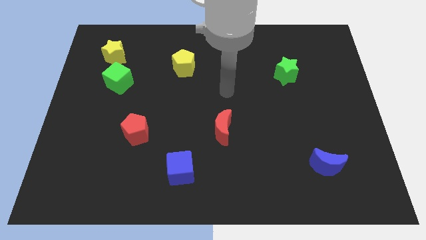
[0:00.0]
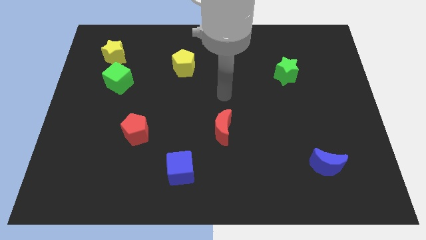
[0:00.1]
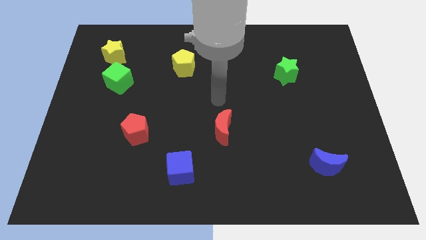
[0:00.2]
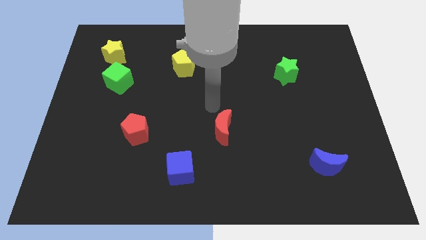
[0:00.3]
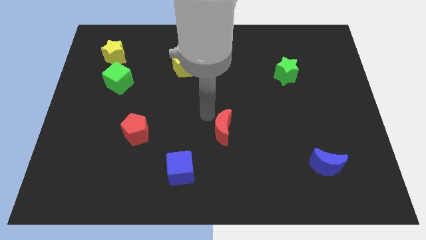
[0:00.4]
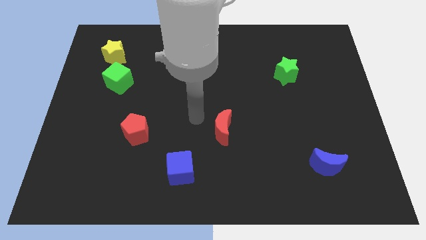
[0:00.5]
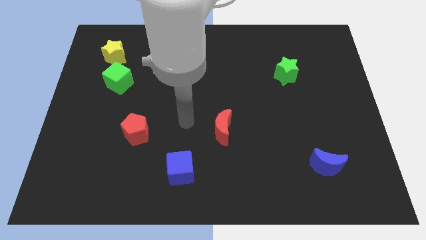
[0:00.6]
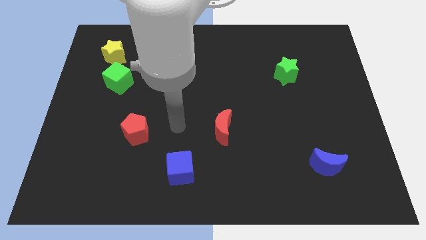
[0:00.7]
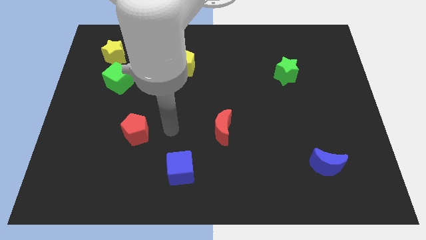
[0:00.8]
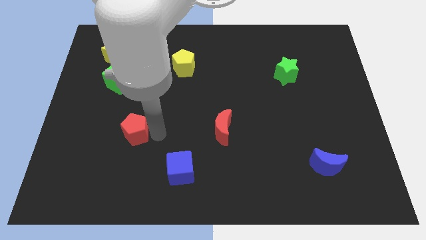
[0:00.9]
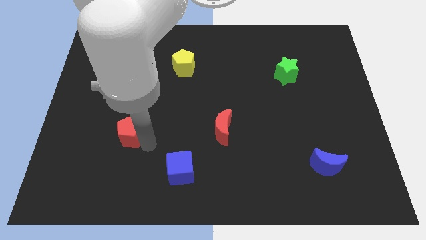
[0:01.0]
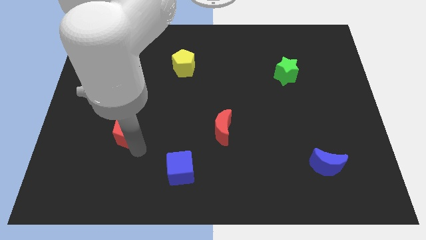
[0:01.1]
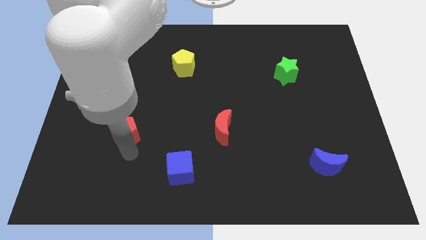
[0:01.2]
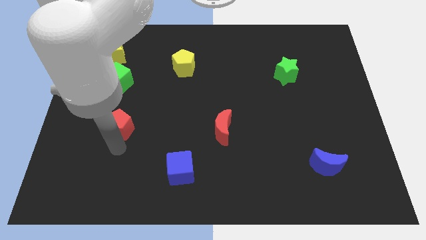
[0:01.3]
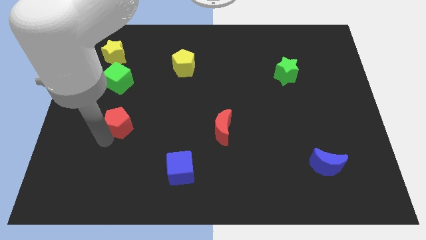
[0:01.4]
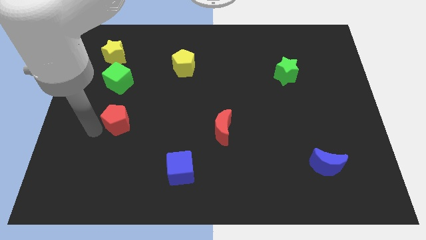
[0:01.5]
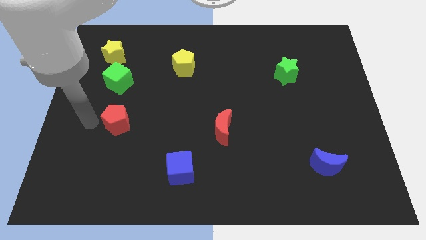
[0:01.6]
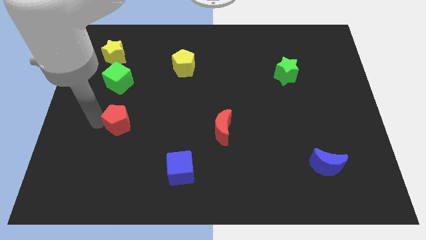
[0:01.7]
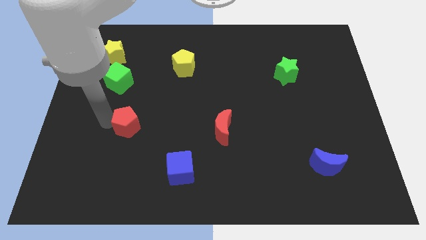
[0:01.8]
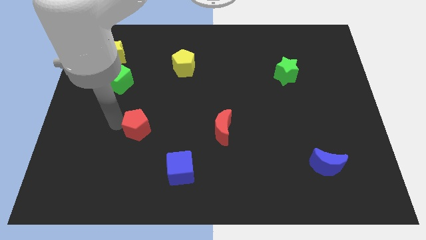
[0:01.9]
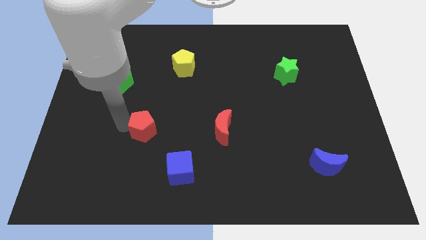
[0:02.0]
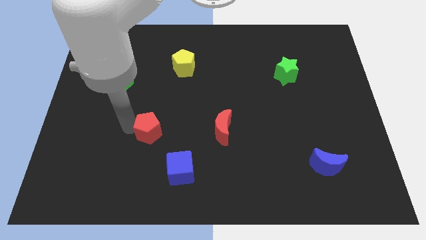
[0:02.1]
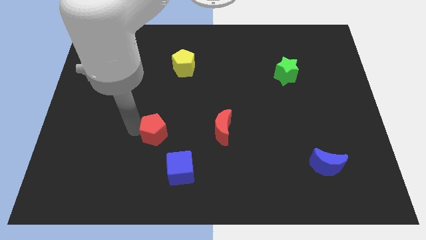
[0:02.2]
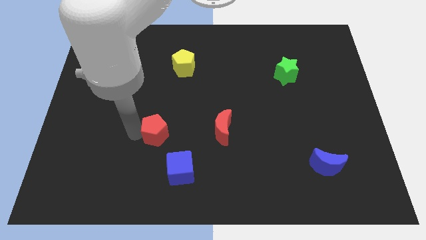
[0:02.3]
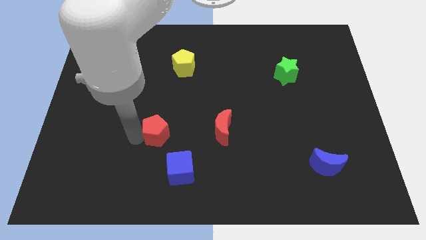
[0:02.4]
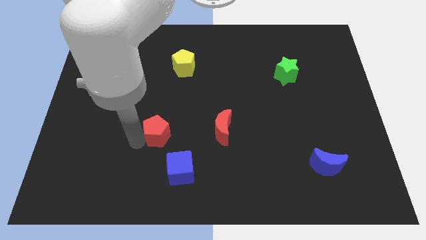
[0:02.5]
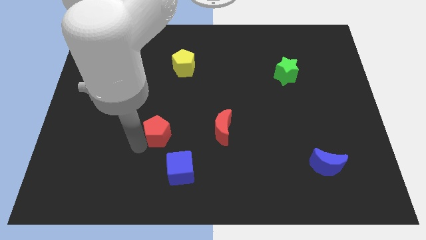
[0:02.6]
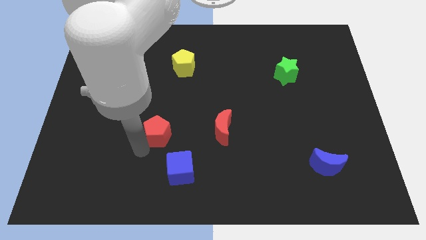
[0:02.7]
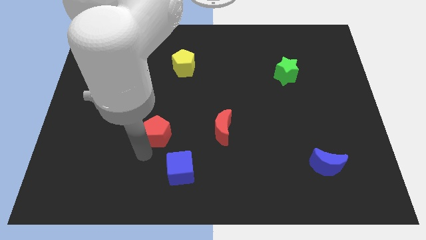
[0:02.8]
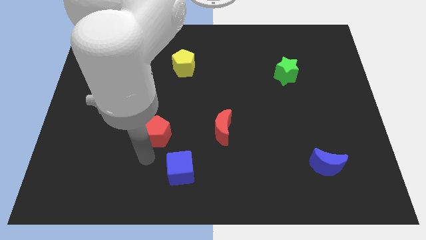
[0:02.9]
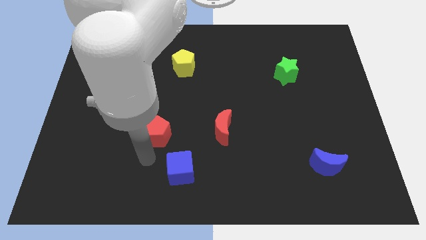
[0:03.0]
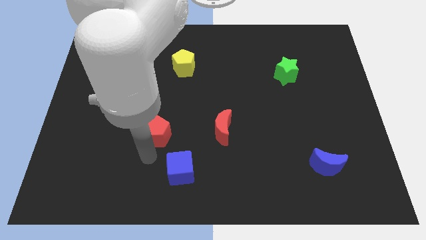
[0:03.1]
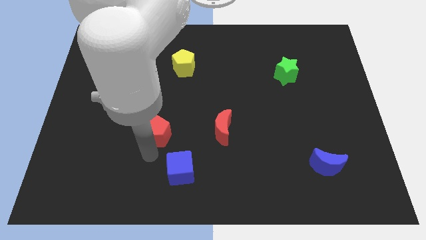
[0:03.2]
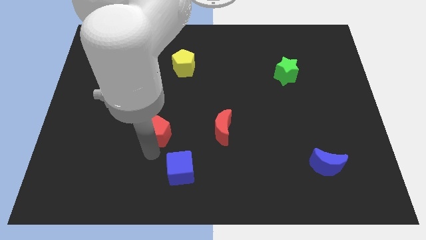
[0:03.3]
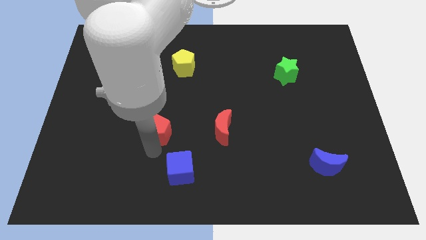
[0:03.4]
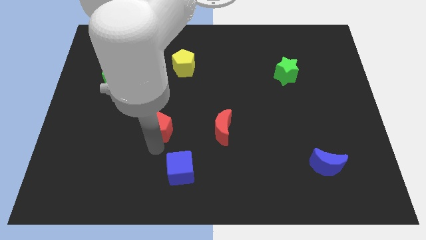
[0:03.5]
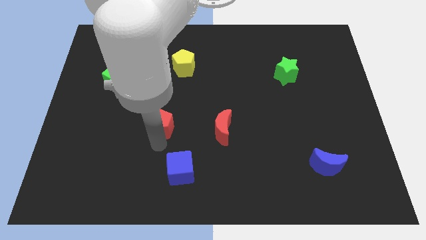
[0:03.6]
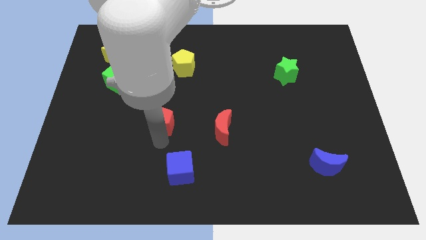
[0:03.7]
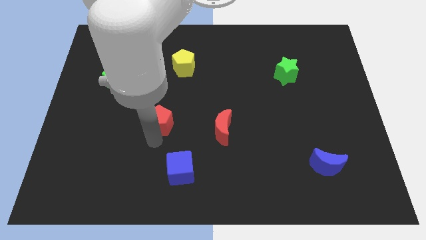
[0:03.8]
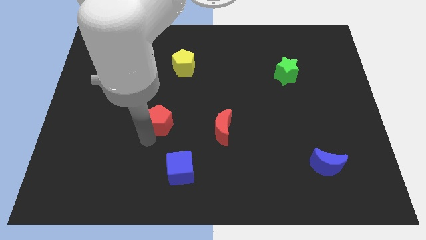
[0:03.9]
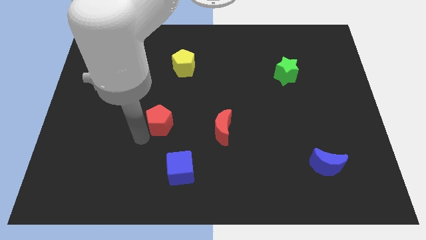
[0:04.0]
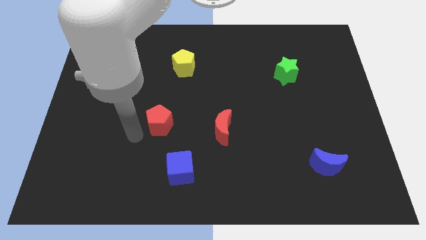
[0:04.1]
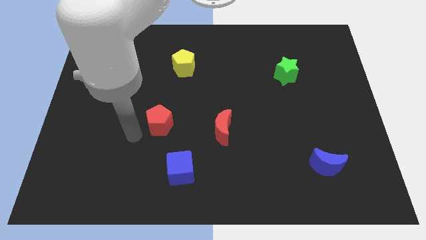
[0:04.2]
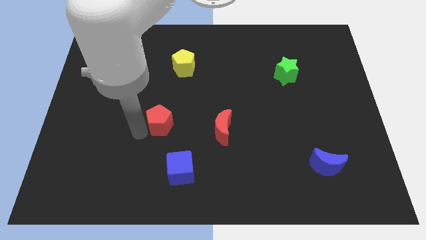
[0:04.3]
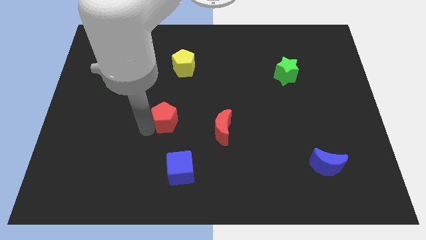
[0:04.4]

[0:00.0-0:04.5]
slightly move the red pentagon upwards and right diagonally

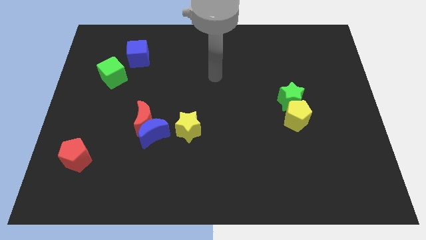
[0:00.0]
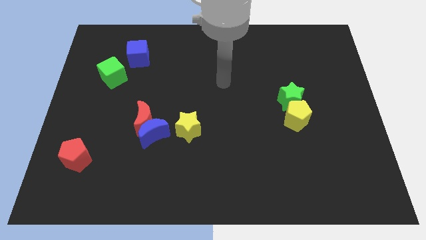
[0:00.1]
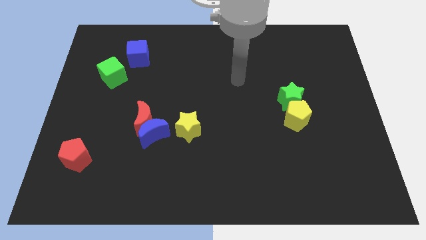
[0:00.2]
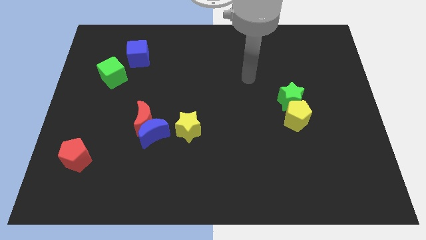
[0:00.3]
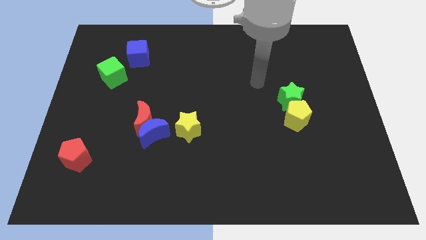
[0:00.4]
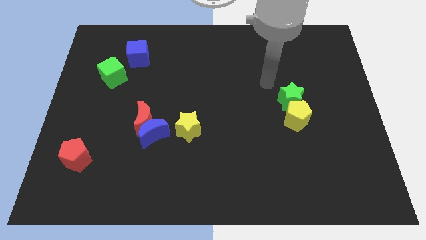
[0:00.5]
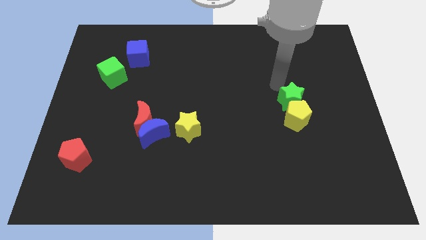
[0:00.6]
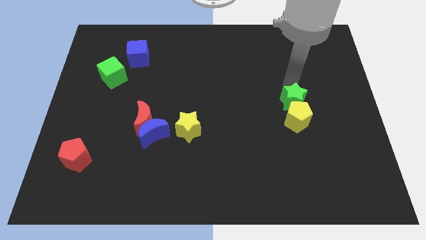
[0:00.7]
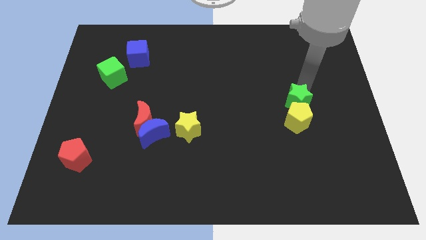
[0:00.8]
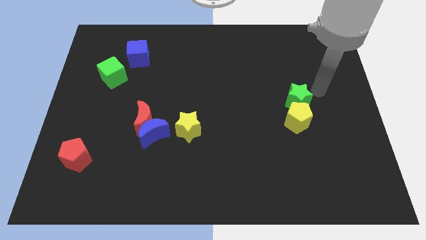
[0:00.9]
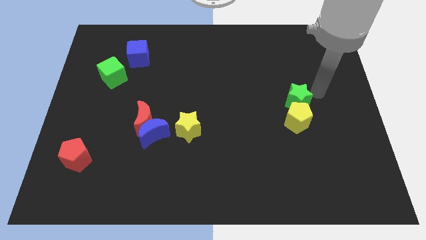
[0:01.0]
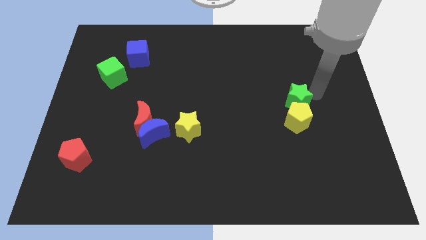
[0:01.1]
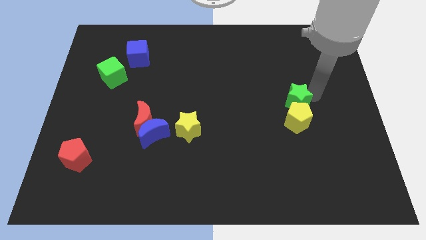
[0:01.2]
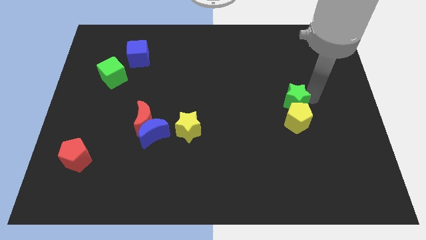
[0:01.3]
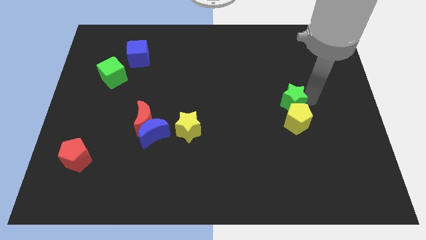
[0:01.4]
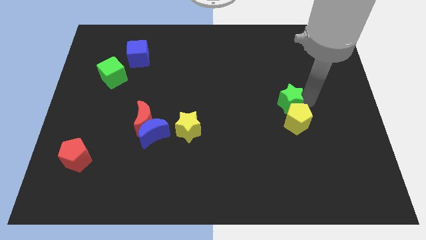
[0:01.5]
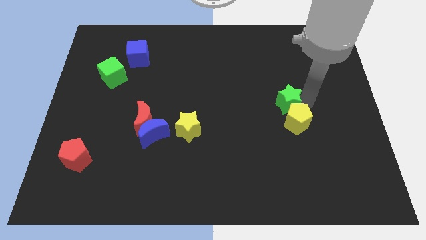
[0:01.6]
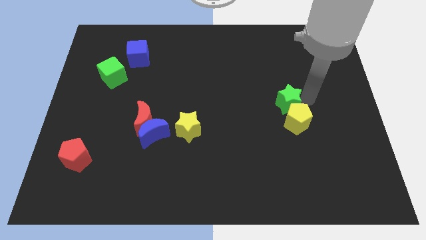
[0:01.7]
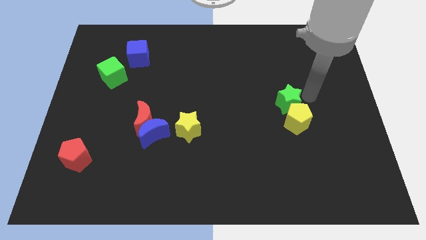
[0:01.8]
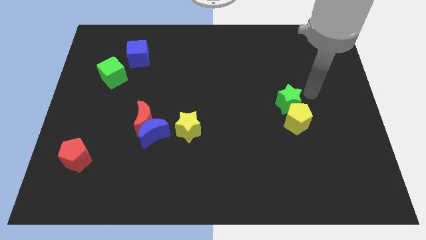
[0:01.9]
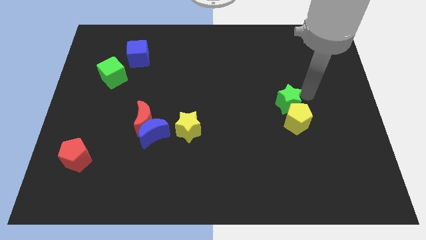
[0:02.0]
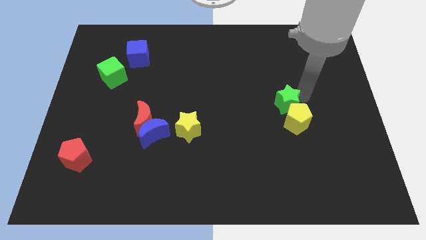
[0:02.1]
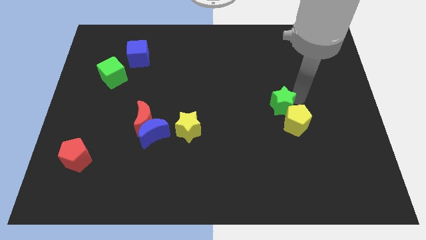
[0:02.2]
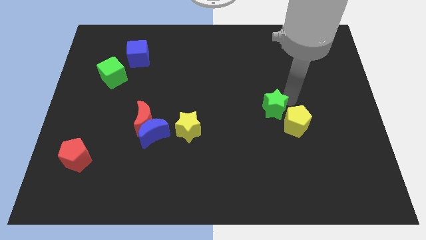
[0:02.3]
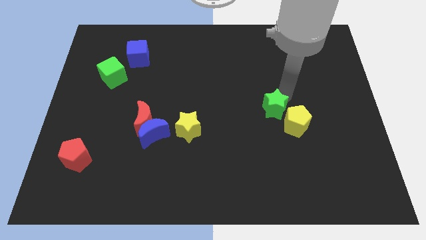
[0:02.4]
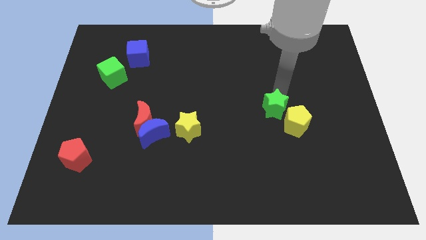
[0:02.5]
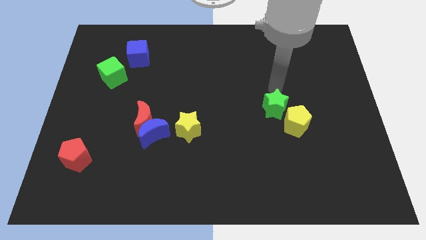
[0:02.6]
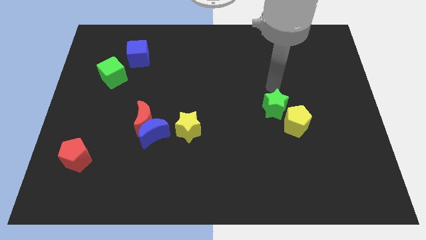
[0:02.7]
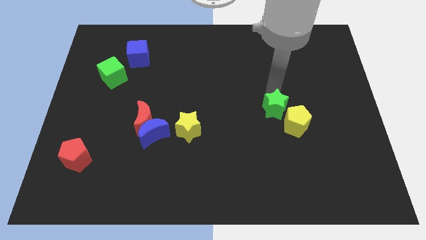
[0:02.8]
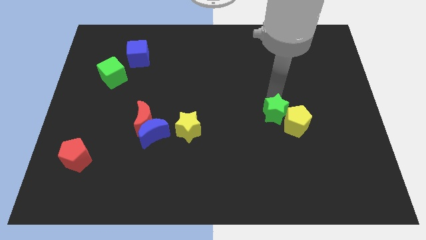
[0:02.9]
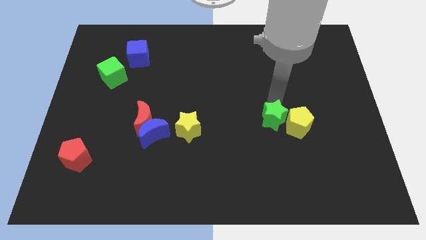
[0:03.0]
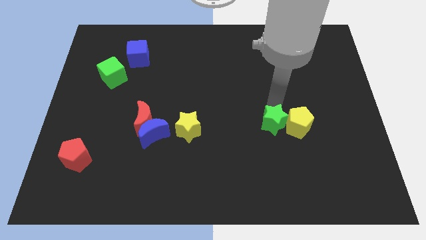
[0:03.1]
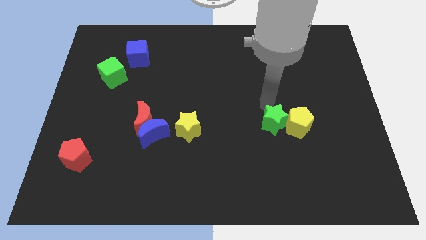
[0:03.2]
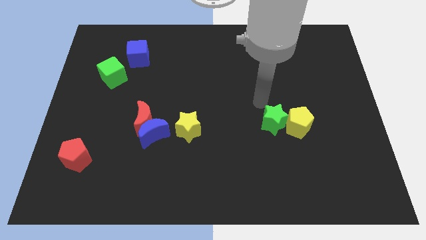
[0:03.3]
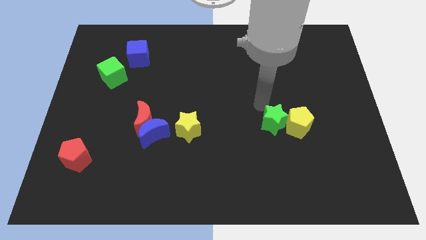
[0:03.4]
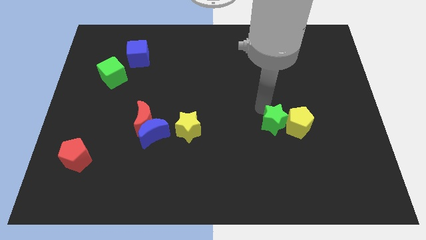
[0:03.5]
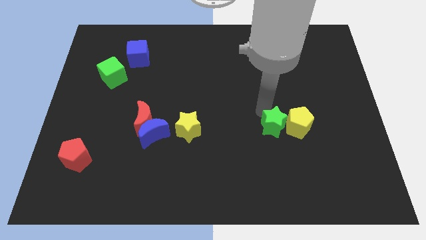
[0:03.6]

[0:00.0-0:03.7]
slide the green star downwards a bit
